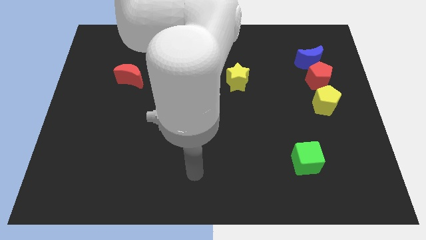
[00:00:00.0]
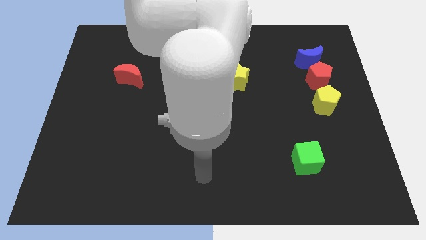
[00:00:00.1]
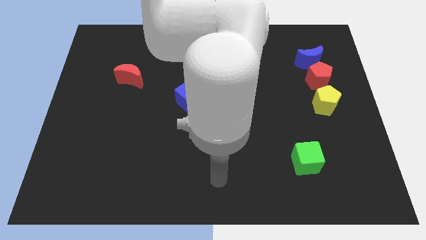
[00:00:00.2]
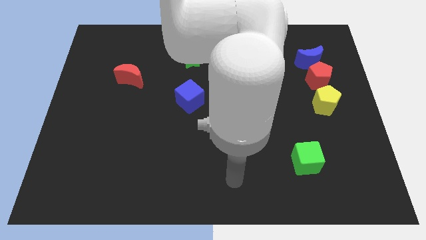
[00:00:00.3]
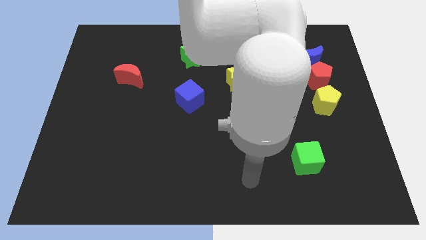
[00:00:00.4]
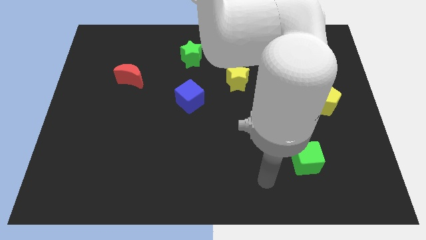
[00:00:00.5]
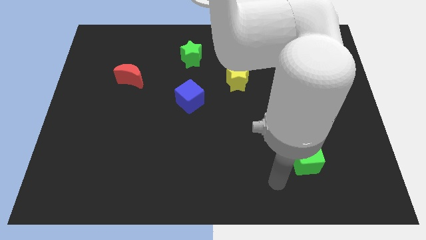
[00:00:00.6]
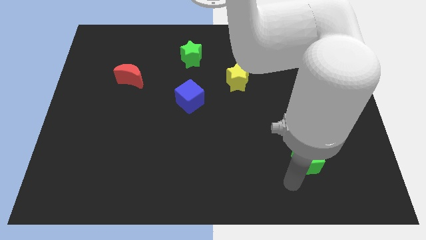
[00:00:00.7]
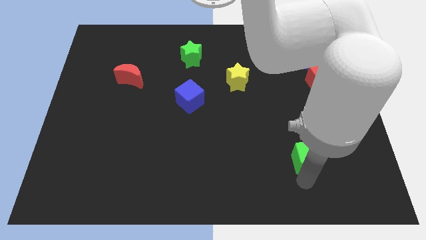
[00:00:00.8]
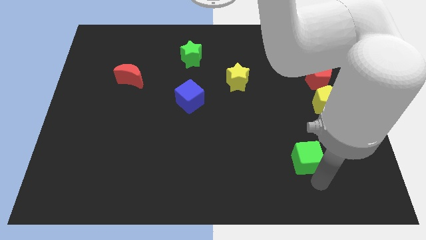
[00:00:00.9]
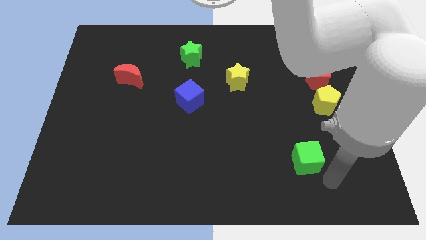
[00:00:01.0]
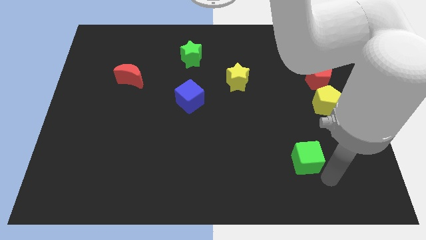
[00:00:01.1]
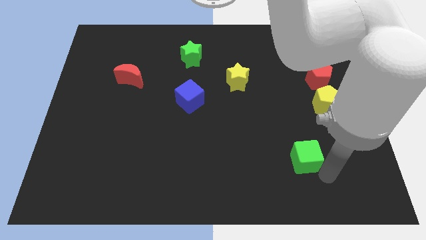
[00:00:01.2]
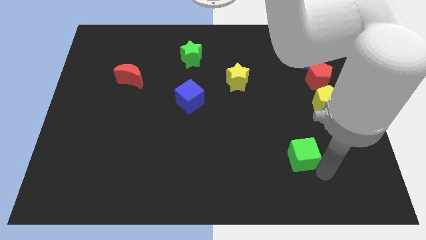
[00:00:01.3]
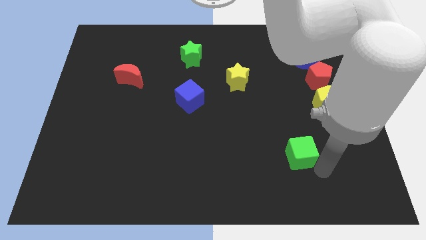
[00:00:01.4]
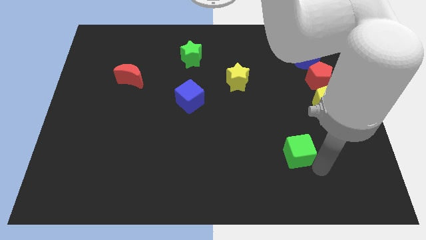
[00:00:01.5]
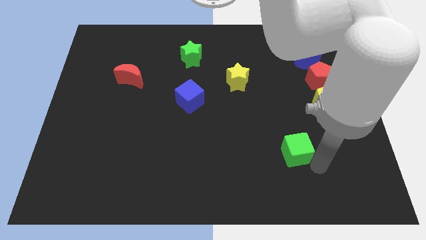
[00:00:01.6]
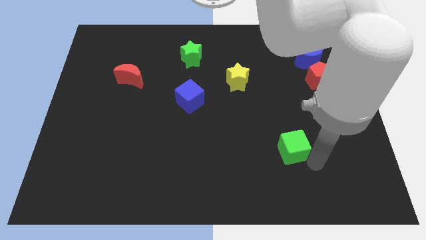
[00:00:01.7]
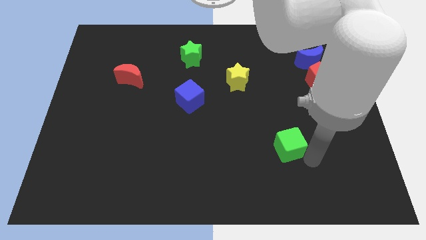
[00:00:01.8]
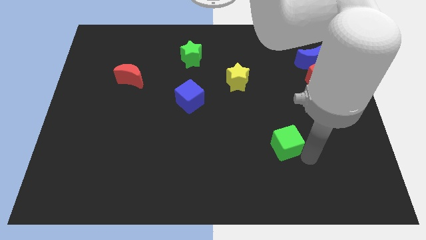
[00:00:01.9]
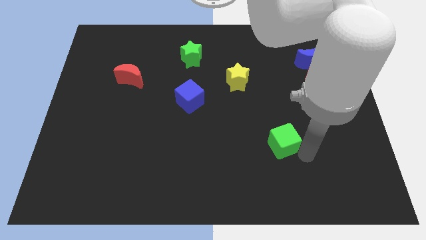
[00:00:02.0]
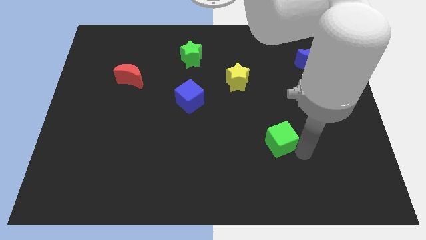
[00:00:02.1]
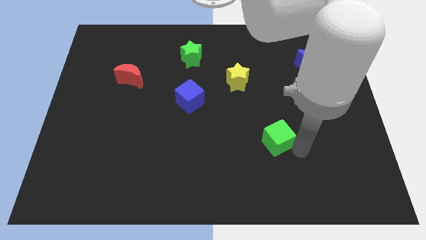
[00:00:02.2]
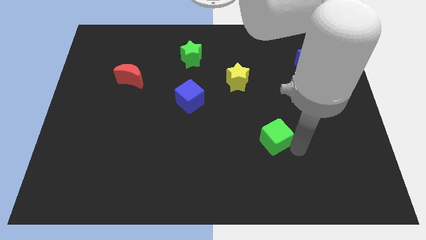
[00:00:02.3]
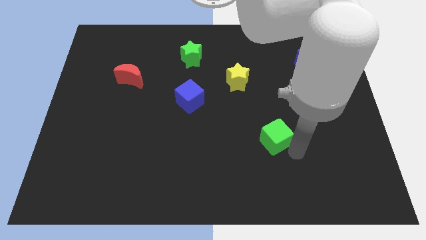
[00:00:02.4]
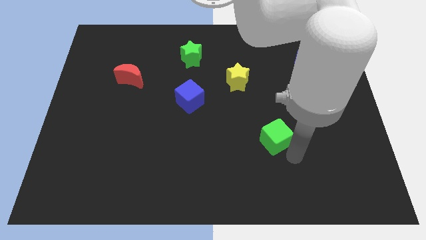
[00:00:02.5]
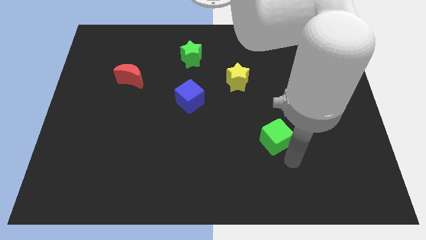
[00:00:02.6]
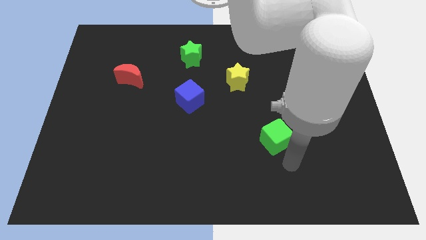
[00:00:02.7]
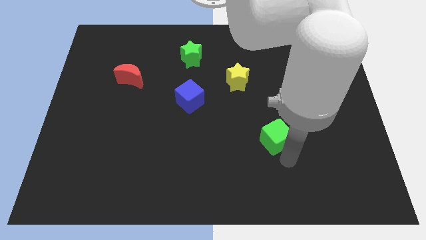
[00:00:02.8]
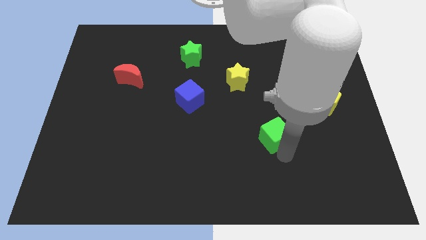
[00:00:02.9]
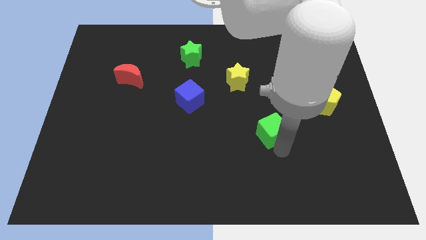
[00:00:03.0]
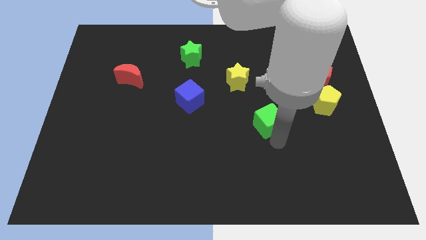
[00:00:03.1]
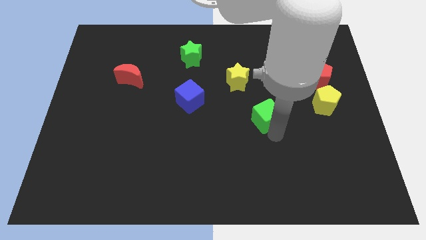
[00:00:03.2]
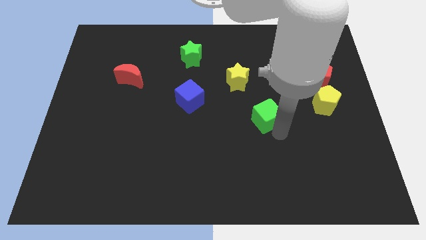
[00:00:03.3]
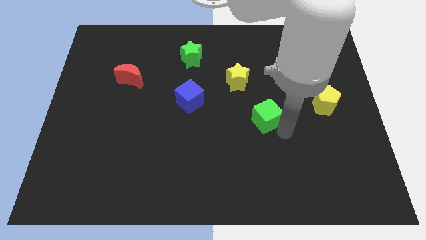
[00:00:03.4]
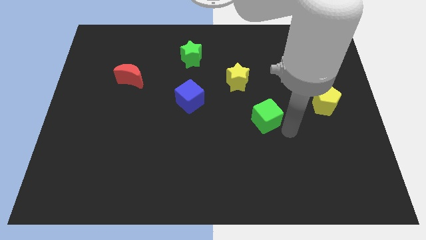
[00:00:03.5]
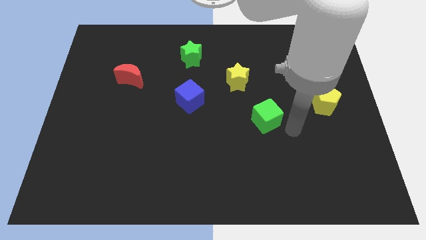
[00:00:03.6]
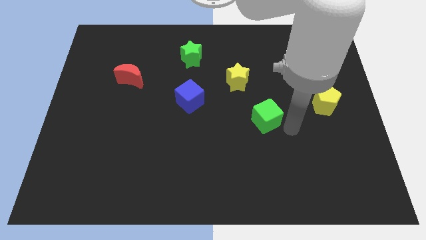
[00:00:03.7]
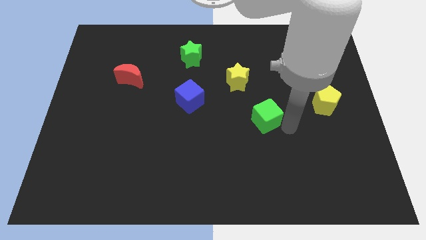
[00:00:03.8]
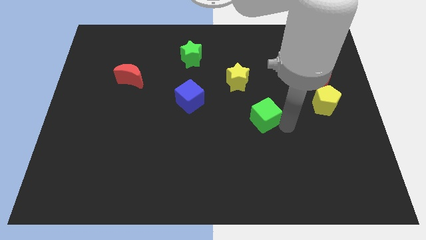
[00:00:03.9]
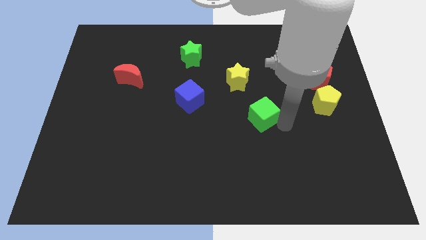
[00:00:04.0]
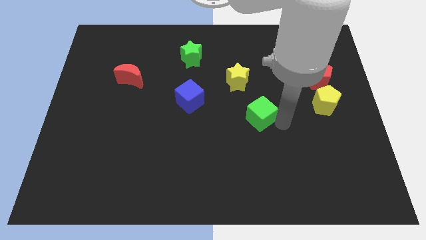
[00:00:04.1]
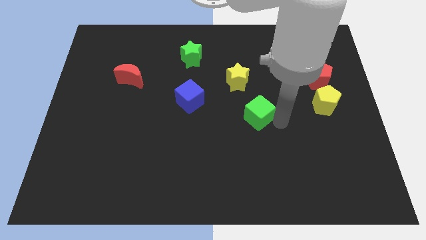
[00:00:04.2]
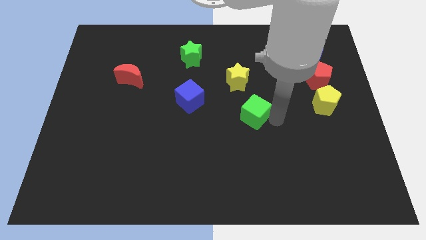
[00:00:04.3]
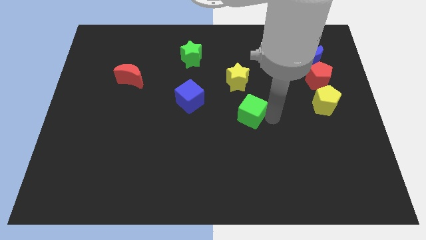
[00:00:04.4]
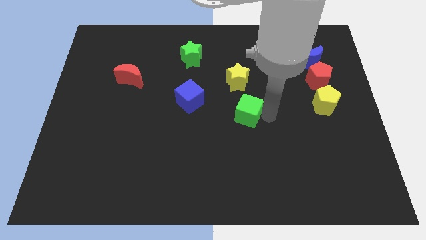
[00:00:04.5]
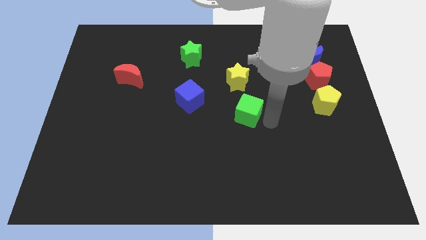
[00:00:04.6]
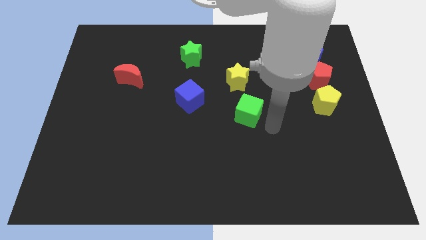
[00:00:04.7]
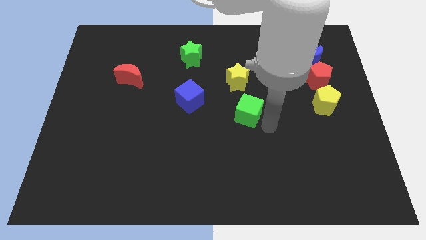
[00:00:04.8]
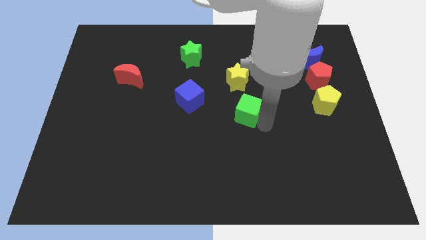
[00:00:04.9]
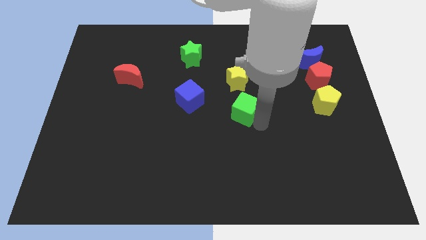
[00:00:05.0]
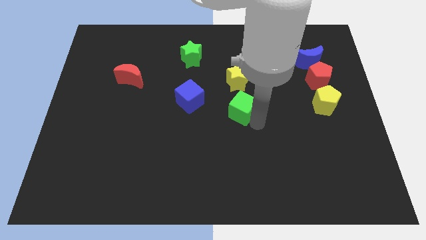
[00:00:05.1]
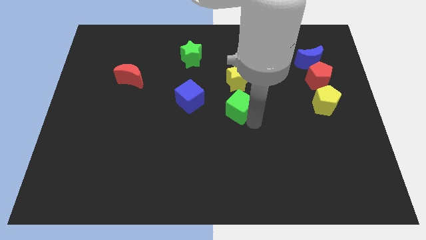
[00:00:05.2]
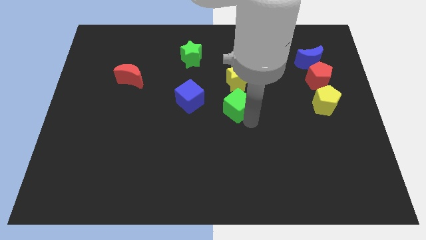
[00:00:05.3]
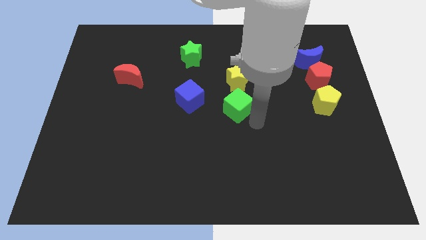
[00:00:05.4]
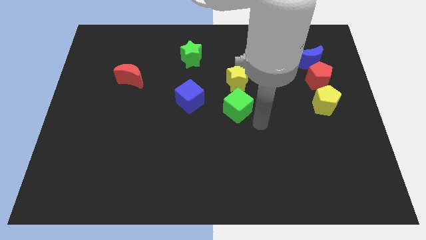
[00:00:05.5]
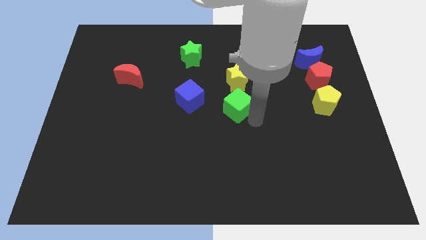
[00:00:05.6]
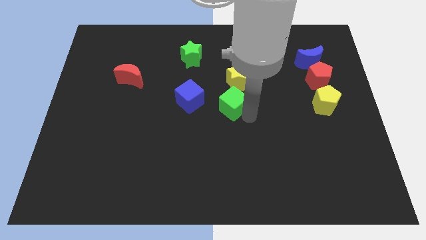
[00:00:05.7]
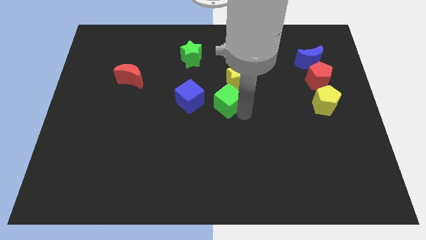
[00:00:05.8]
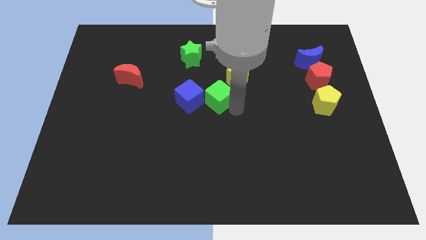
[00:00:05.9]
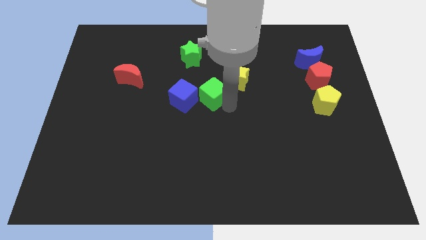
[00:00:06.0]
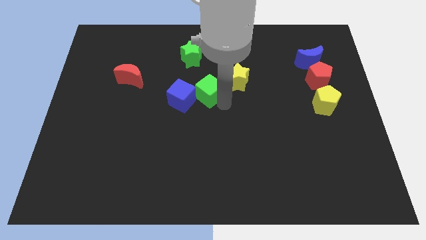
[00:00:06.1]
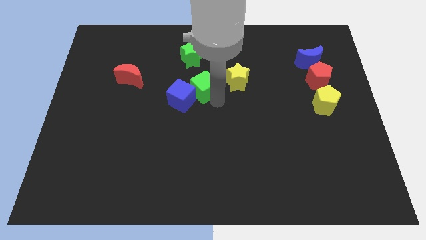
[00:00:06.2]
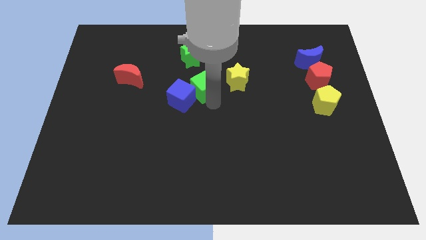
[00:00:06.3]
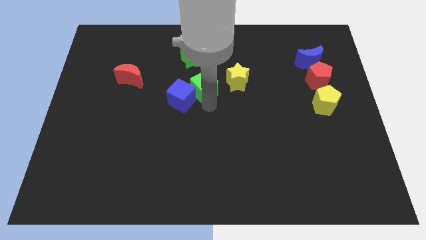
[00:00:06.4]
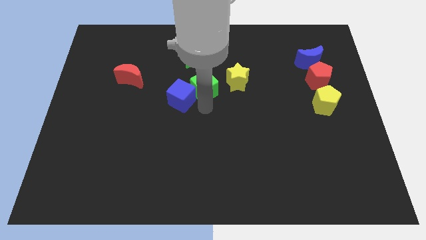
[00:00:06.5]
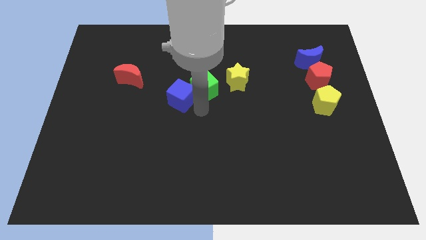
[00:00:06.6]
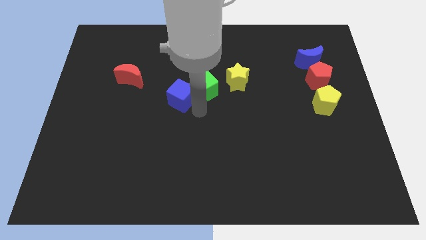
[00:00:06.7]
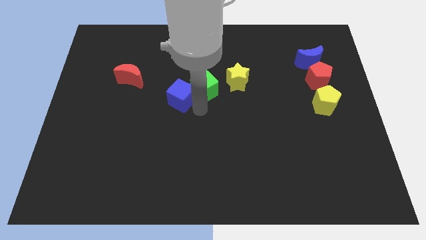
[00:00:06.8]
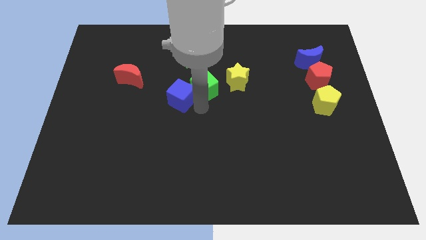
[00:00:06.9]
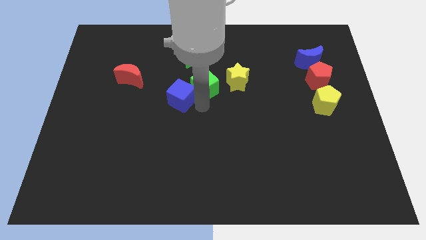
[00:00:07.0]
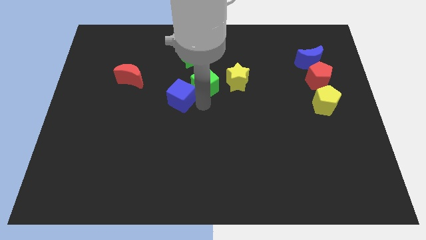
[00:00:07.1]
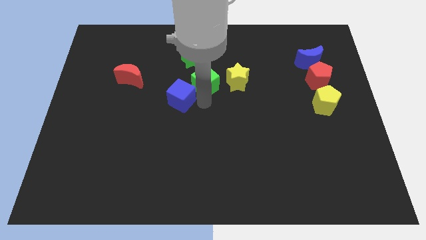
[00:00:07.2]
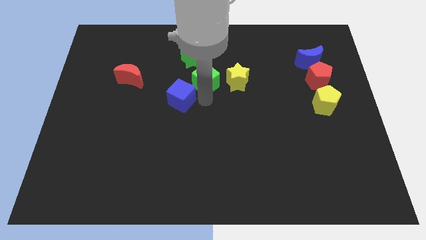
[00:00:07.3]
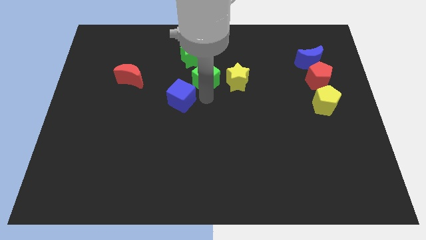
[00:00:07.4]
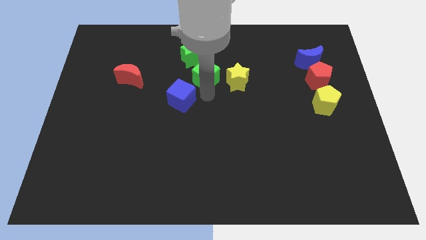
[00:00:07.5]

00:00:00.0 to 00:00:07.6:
move the green cube diagonally up and to the left of the yellow star
